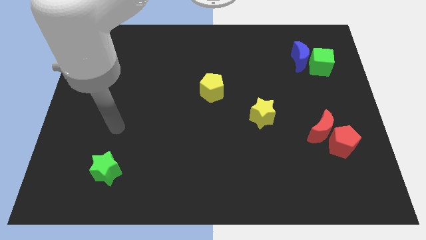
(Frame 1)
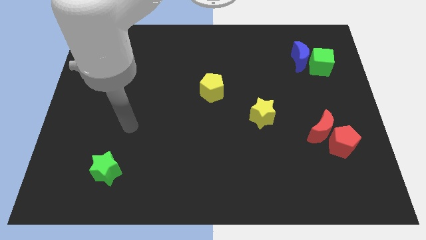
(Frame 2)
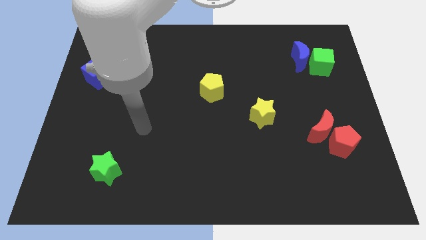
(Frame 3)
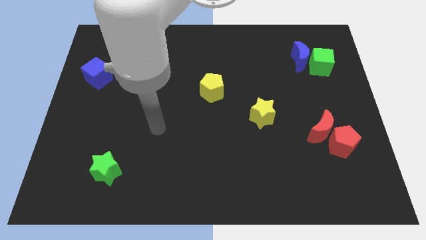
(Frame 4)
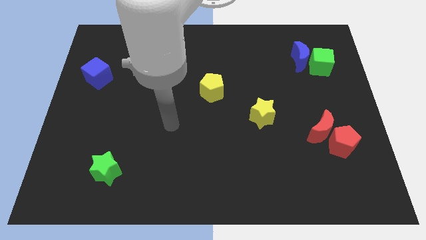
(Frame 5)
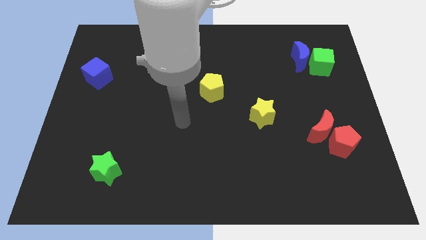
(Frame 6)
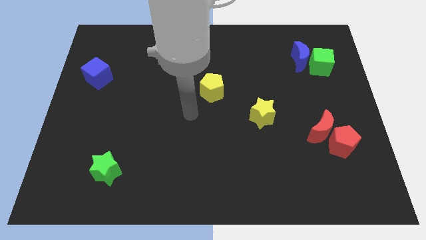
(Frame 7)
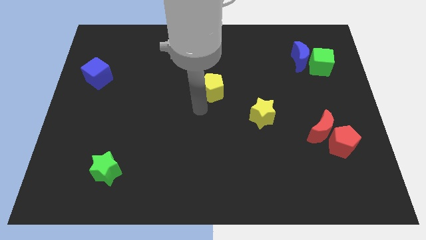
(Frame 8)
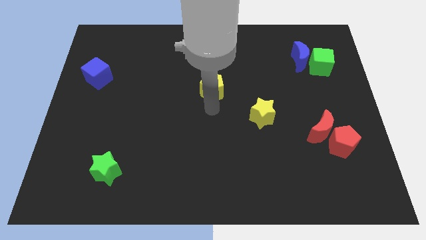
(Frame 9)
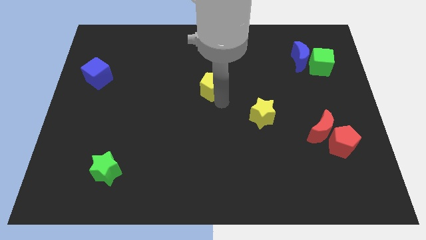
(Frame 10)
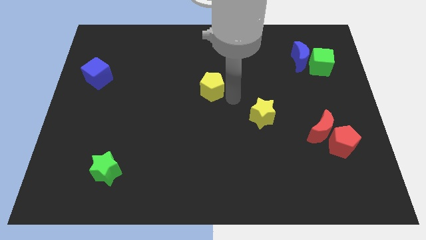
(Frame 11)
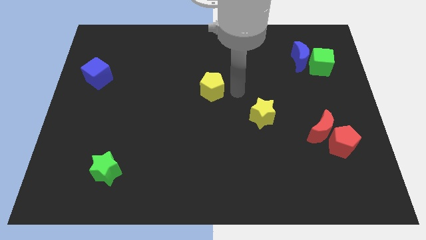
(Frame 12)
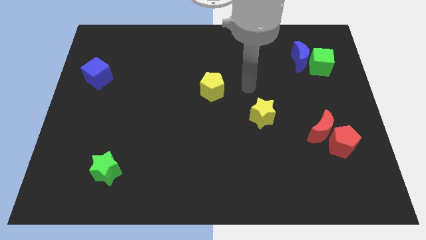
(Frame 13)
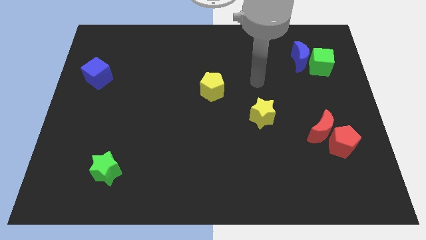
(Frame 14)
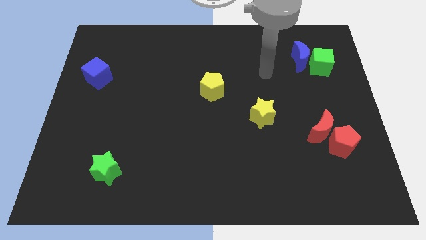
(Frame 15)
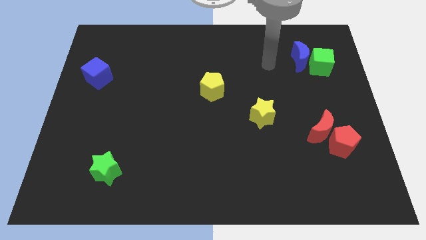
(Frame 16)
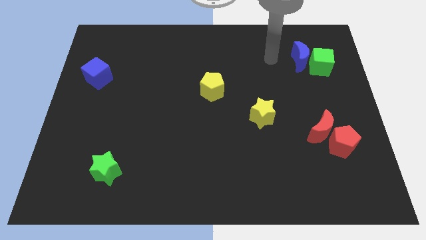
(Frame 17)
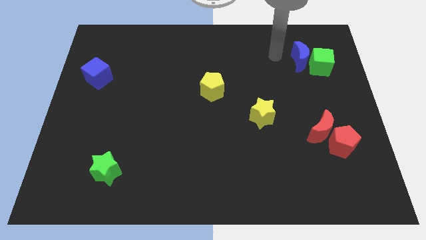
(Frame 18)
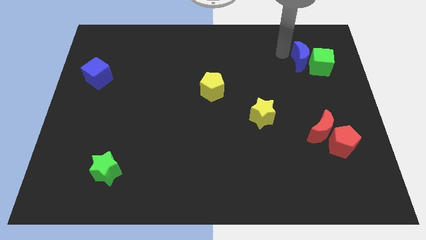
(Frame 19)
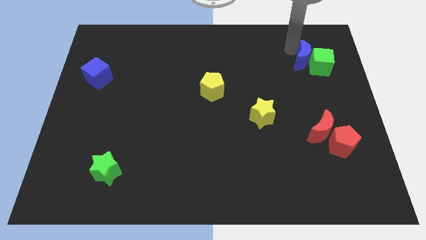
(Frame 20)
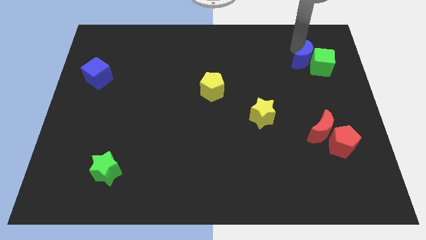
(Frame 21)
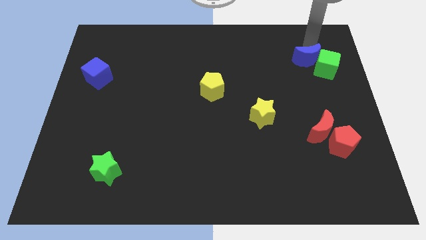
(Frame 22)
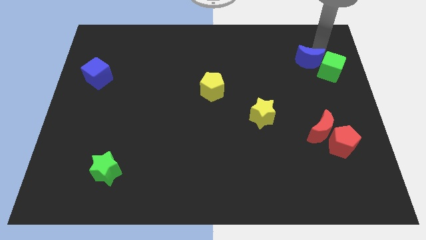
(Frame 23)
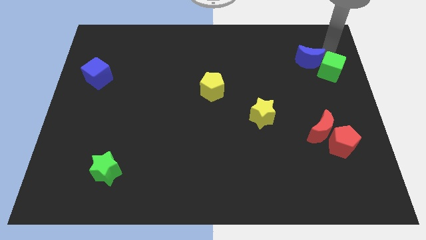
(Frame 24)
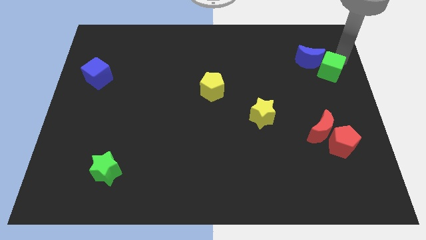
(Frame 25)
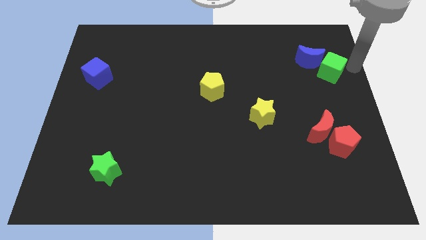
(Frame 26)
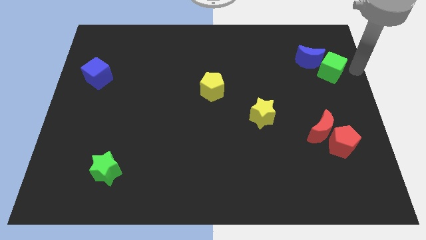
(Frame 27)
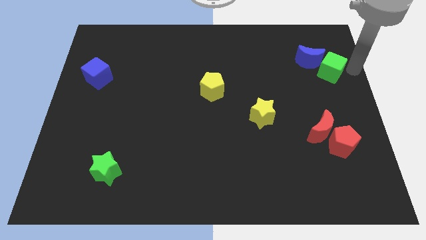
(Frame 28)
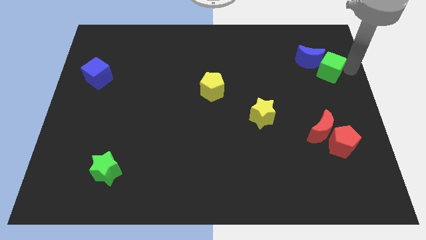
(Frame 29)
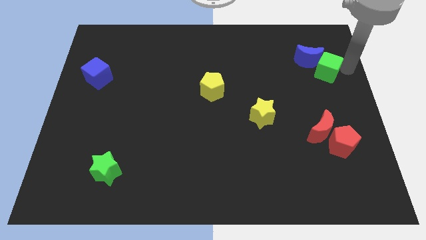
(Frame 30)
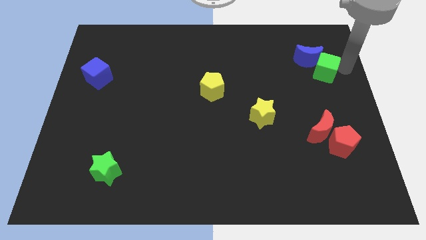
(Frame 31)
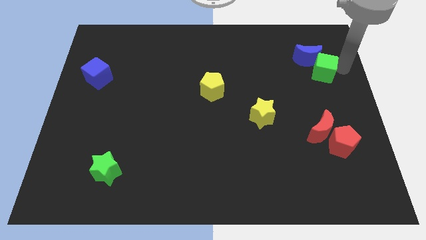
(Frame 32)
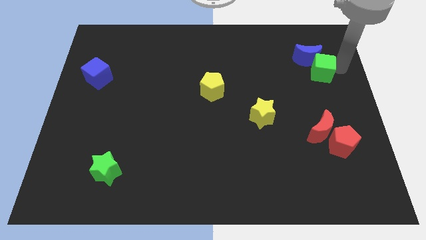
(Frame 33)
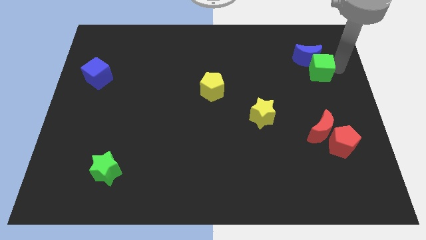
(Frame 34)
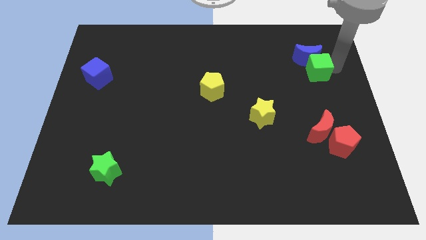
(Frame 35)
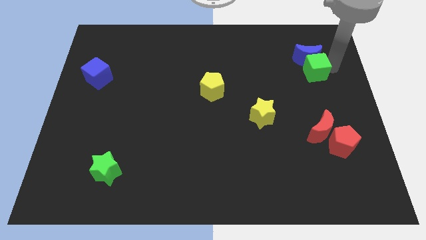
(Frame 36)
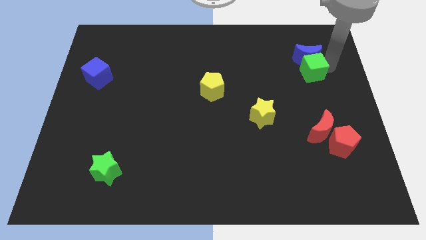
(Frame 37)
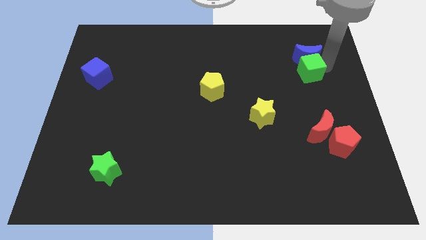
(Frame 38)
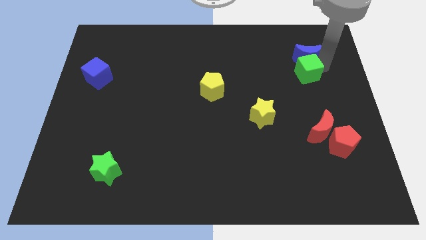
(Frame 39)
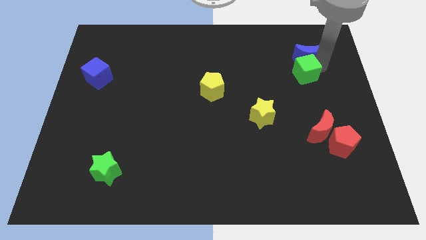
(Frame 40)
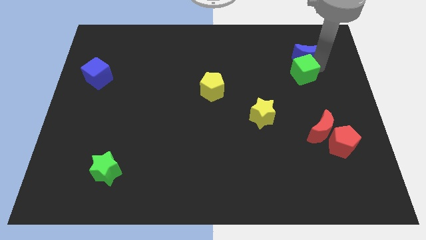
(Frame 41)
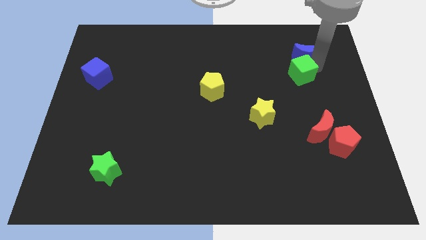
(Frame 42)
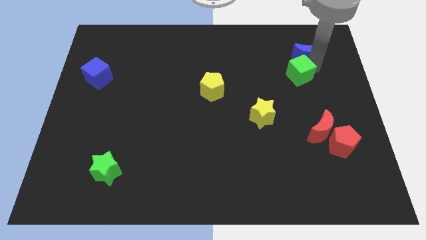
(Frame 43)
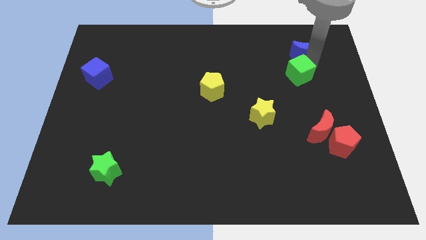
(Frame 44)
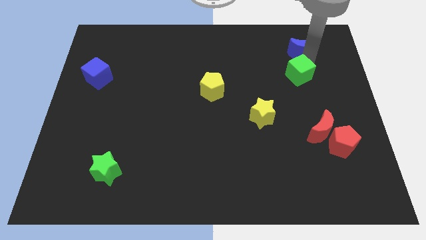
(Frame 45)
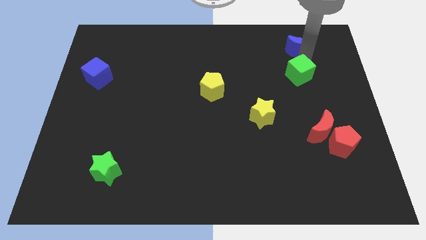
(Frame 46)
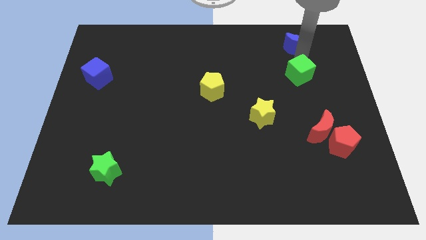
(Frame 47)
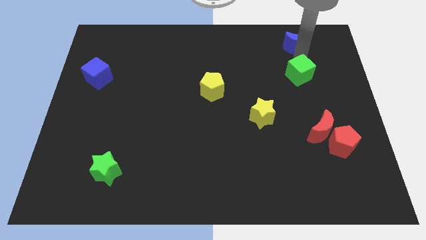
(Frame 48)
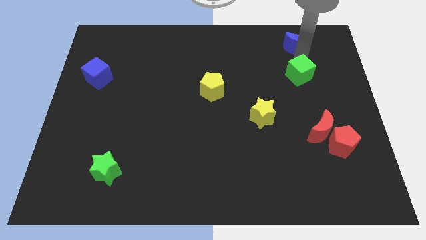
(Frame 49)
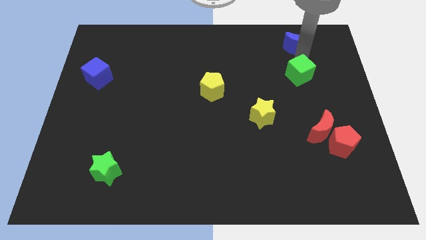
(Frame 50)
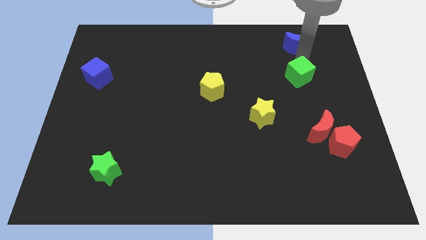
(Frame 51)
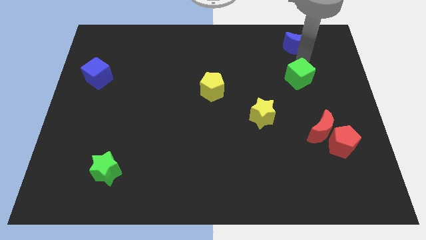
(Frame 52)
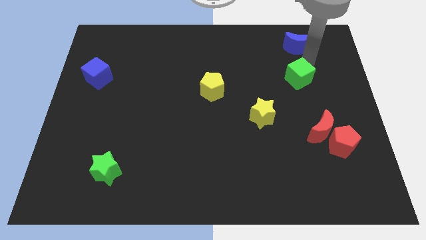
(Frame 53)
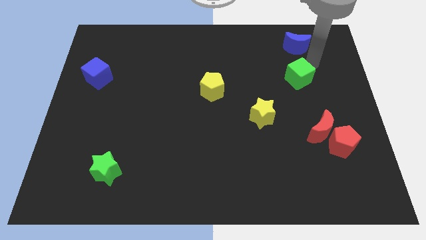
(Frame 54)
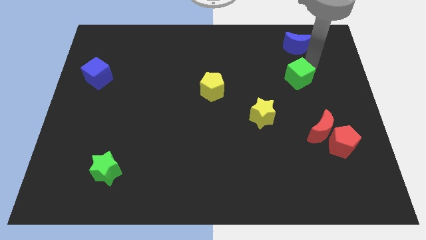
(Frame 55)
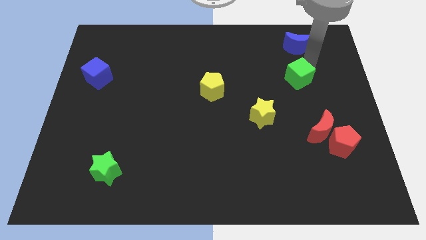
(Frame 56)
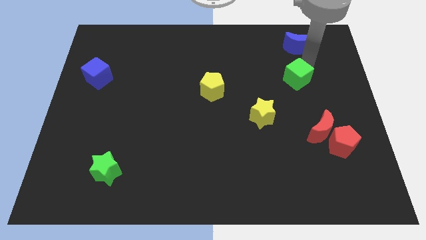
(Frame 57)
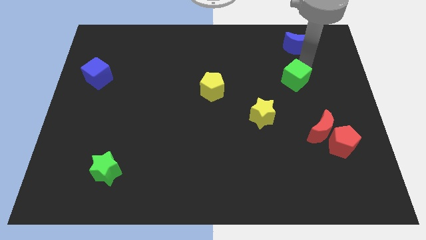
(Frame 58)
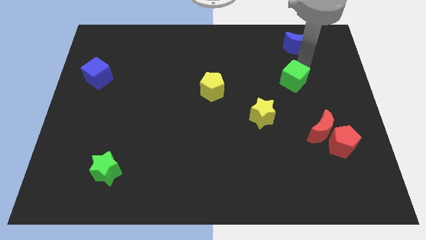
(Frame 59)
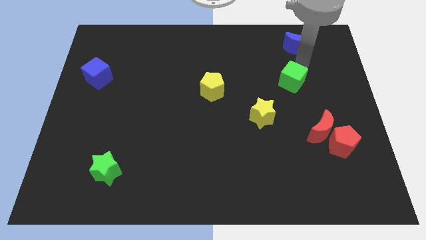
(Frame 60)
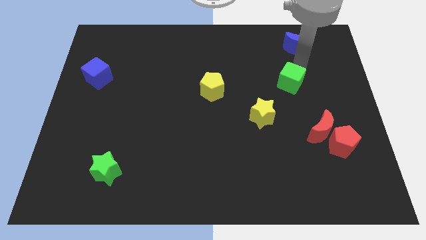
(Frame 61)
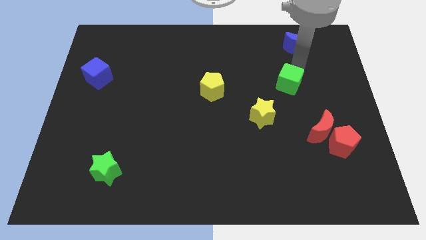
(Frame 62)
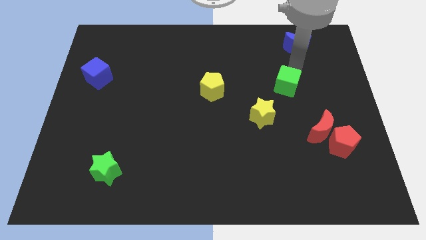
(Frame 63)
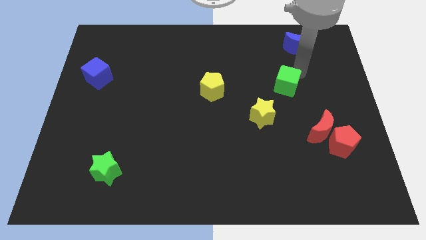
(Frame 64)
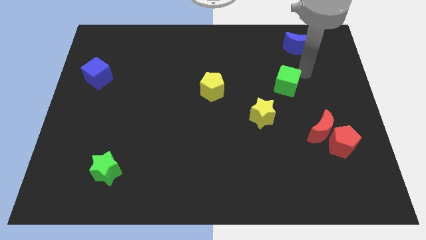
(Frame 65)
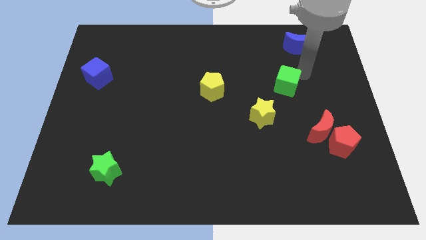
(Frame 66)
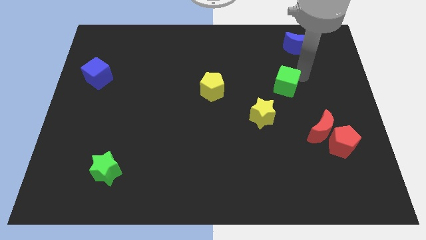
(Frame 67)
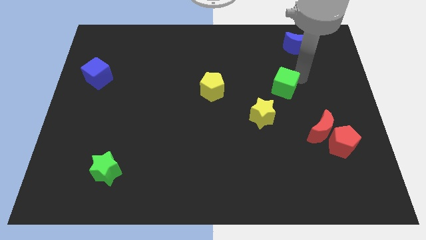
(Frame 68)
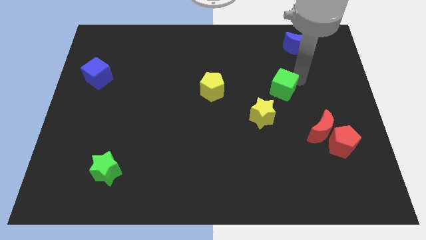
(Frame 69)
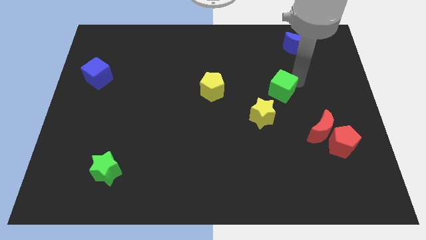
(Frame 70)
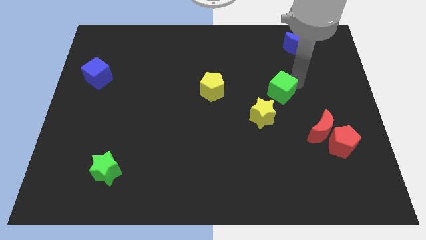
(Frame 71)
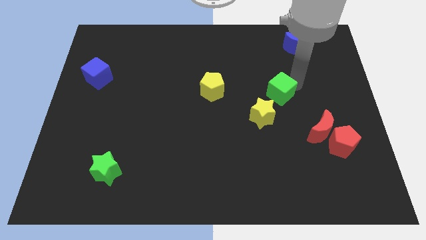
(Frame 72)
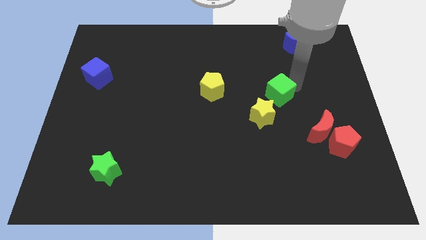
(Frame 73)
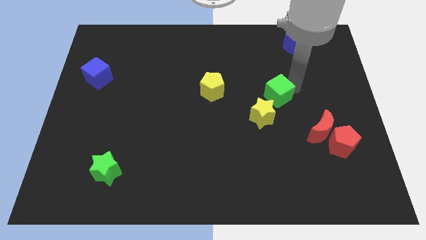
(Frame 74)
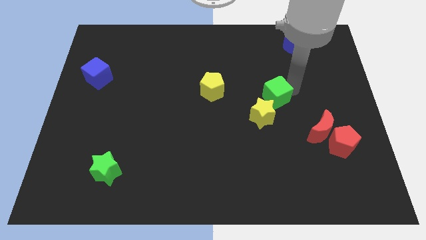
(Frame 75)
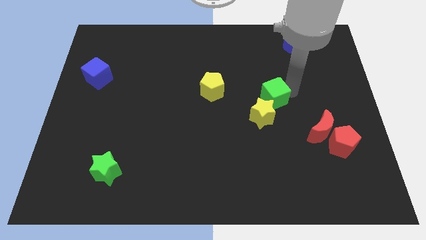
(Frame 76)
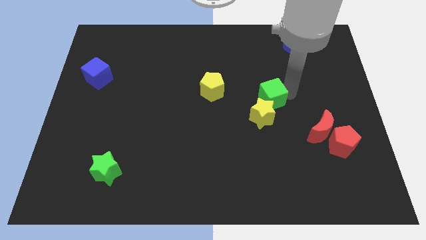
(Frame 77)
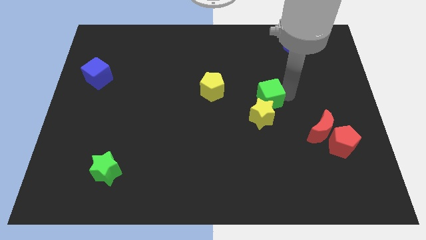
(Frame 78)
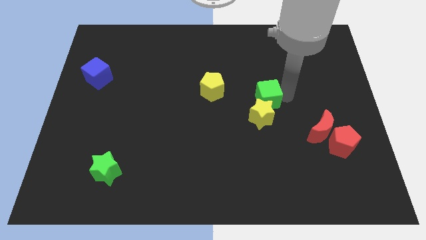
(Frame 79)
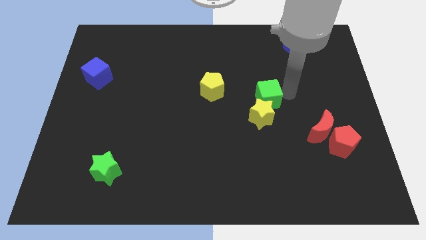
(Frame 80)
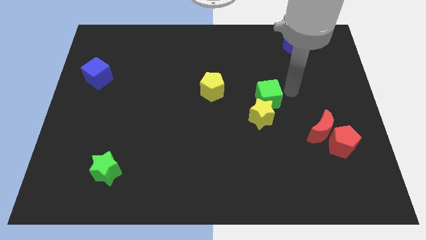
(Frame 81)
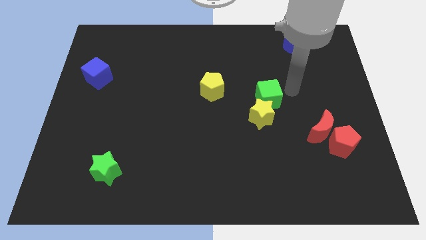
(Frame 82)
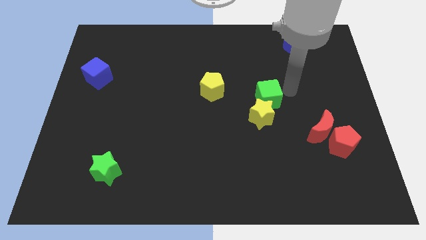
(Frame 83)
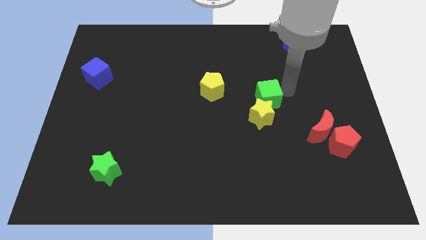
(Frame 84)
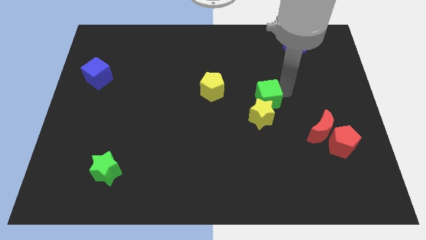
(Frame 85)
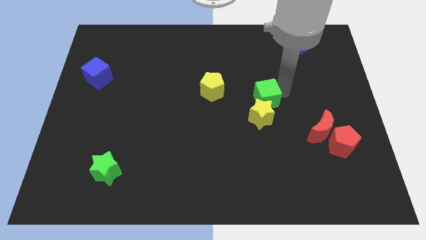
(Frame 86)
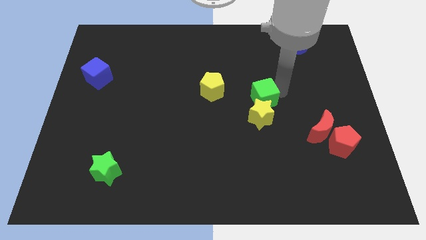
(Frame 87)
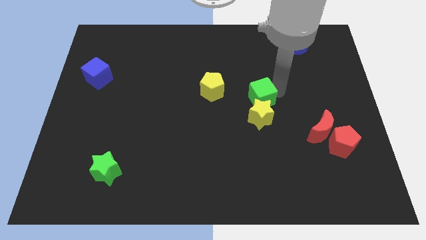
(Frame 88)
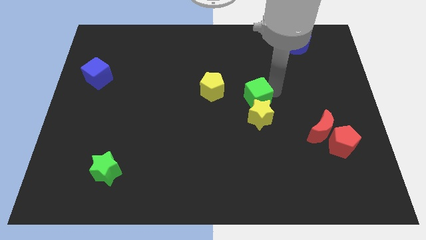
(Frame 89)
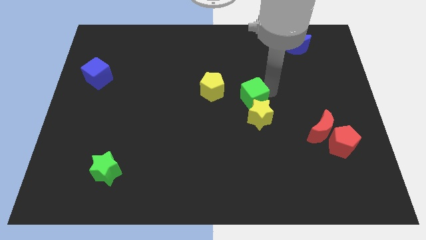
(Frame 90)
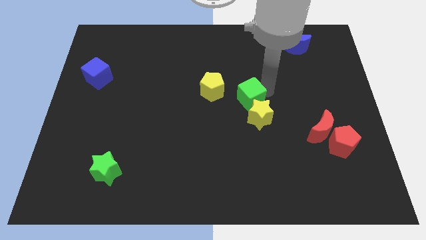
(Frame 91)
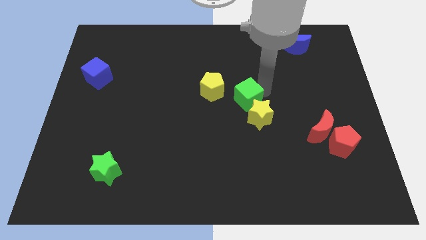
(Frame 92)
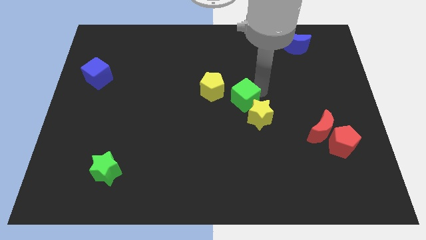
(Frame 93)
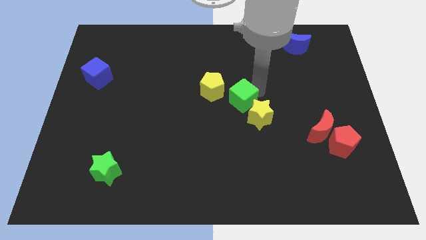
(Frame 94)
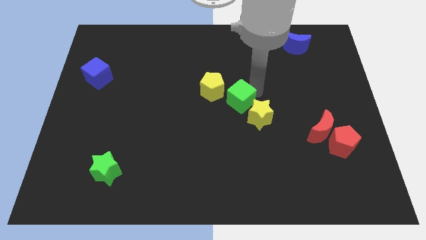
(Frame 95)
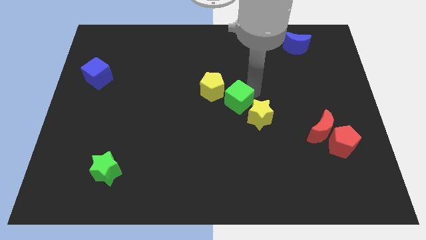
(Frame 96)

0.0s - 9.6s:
move the green cube to the left side of the yellow star
